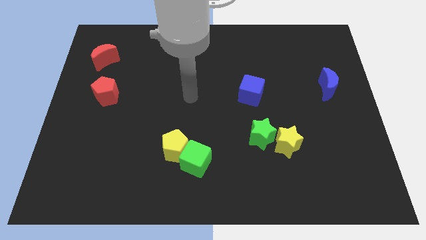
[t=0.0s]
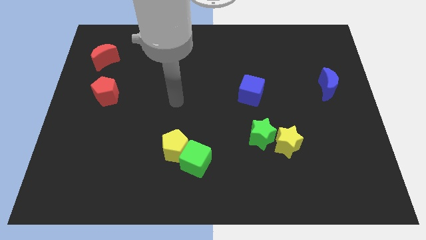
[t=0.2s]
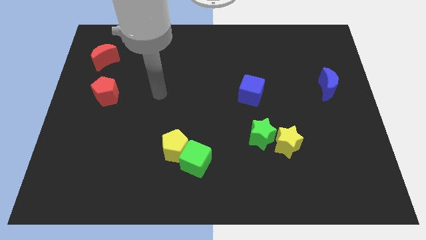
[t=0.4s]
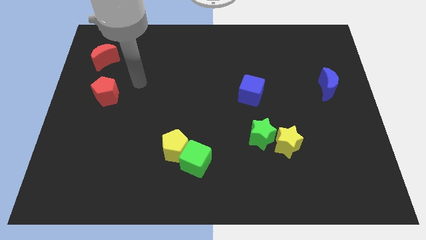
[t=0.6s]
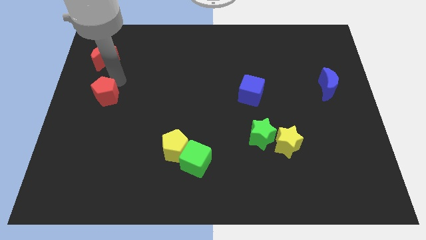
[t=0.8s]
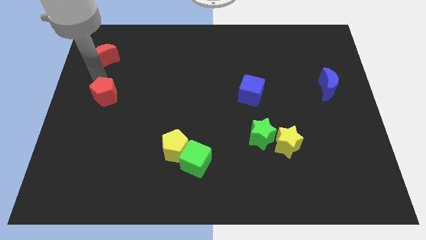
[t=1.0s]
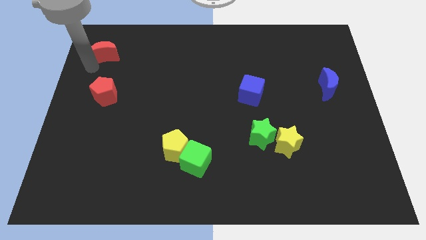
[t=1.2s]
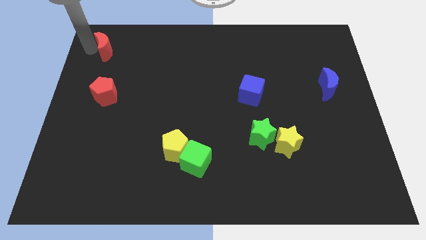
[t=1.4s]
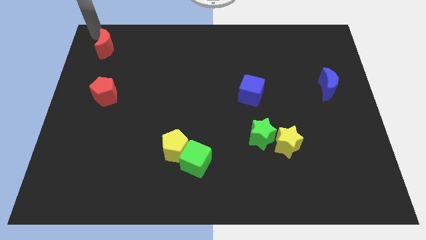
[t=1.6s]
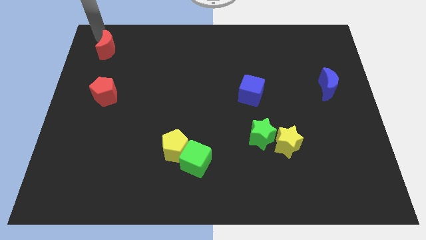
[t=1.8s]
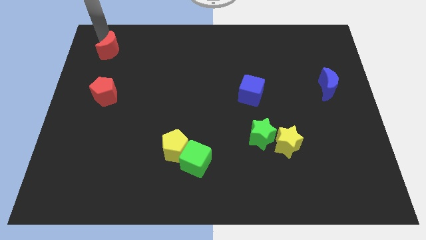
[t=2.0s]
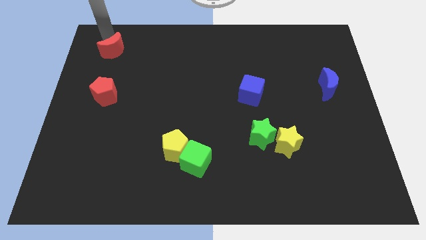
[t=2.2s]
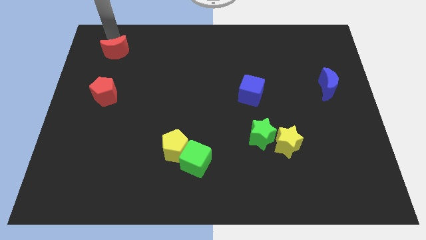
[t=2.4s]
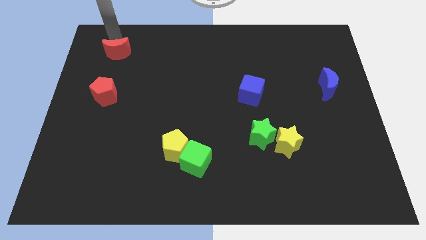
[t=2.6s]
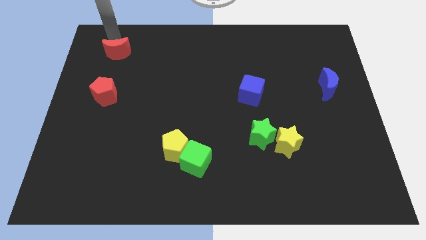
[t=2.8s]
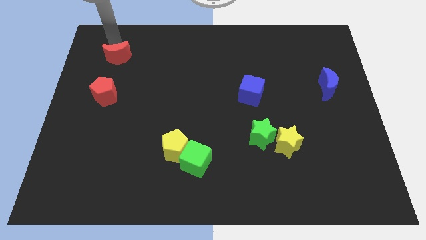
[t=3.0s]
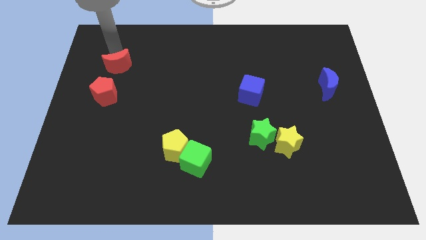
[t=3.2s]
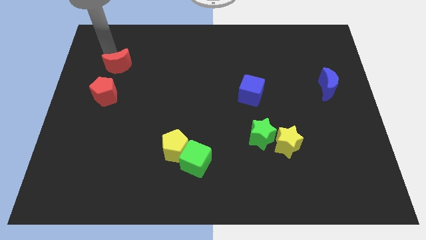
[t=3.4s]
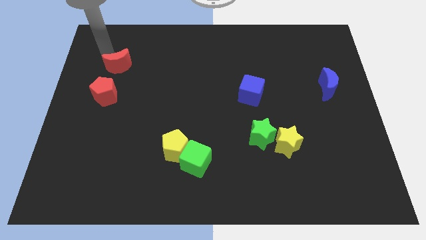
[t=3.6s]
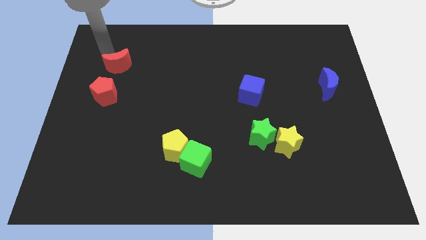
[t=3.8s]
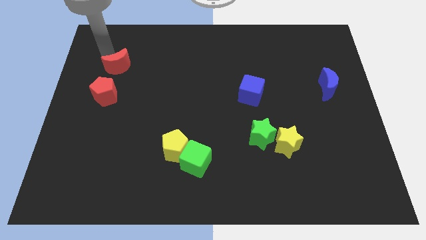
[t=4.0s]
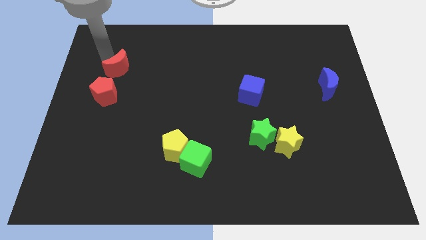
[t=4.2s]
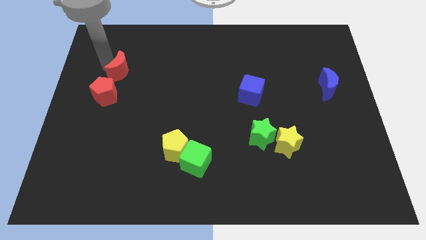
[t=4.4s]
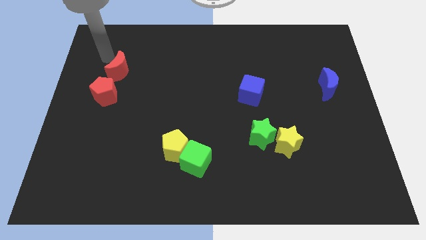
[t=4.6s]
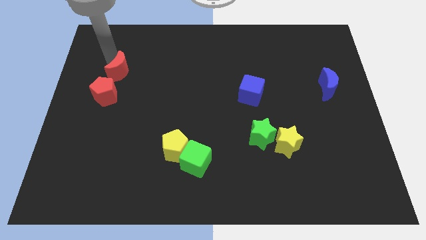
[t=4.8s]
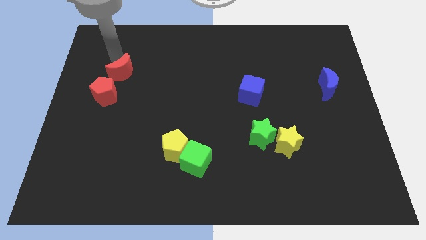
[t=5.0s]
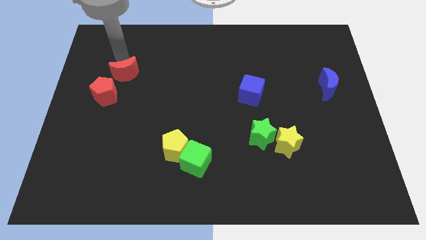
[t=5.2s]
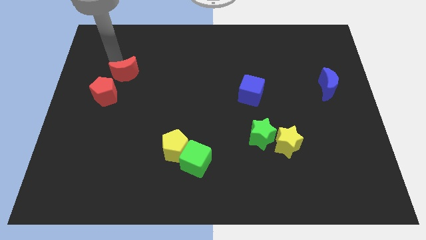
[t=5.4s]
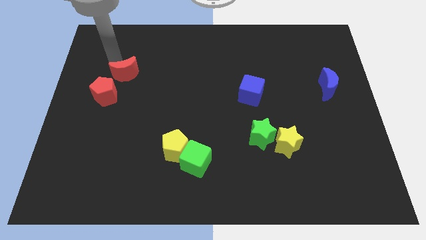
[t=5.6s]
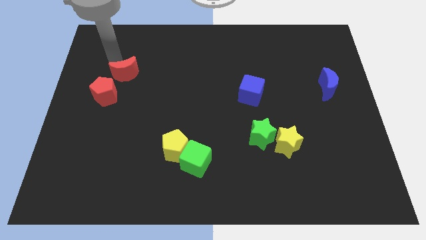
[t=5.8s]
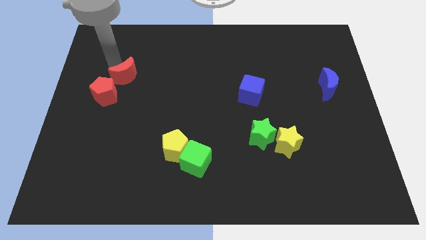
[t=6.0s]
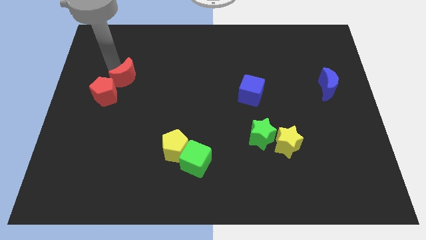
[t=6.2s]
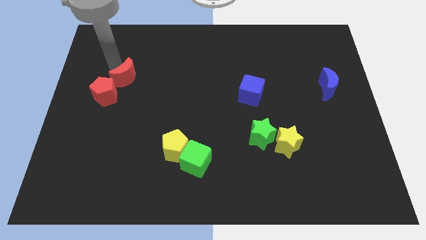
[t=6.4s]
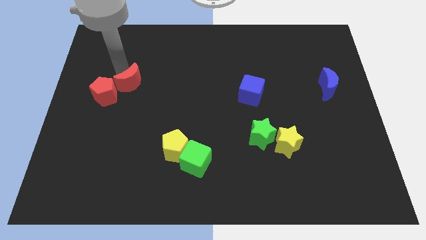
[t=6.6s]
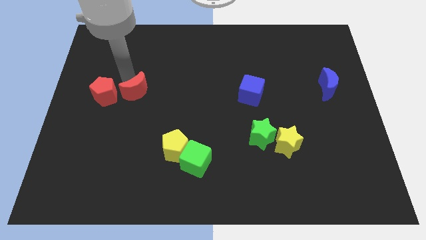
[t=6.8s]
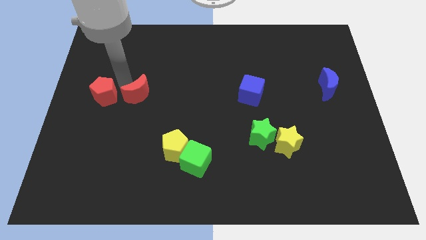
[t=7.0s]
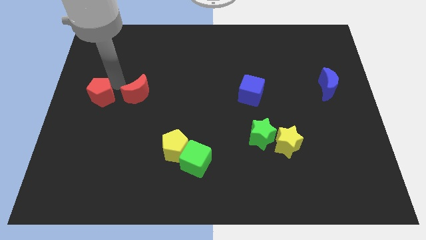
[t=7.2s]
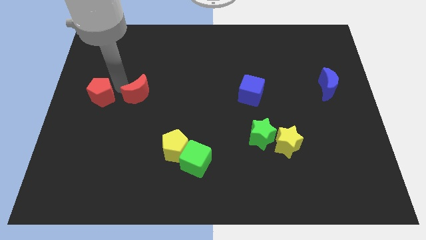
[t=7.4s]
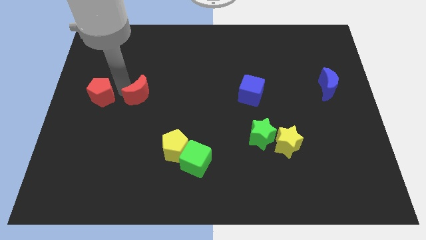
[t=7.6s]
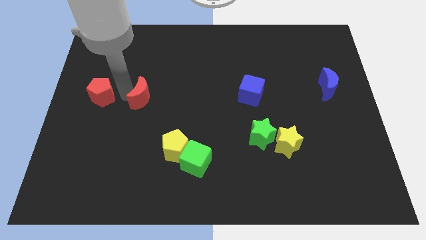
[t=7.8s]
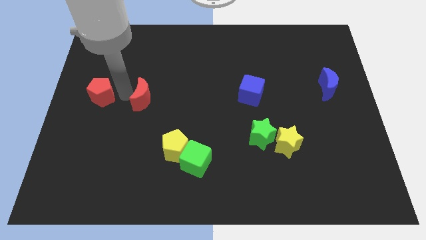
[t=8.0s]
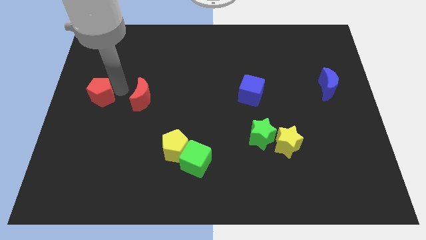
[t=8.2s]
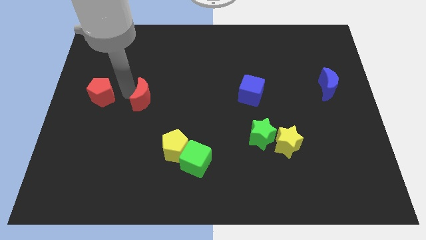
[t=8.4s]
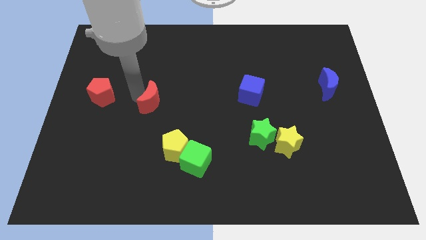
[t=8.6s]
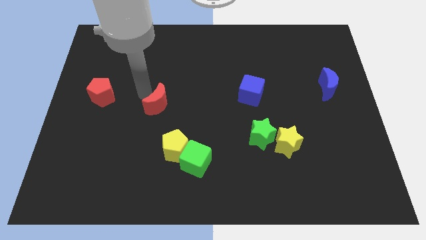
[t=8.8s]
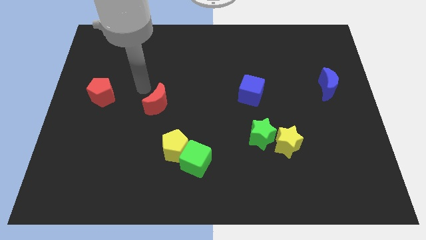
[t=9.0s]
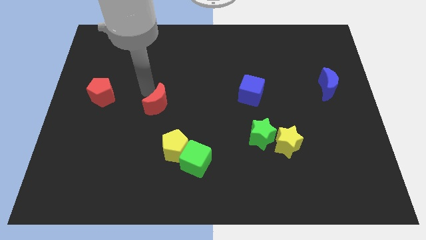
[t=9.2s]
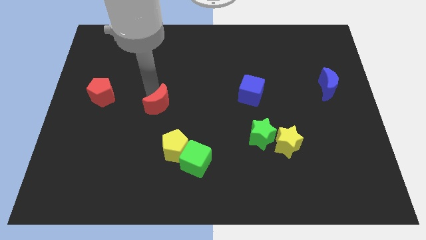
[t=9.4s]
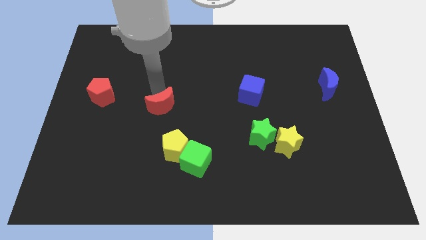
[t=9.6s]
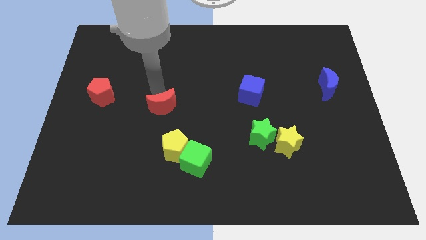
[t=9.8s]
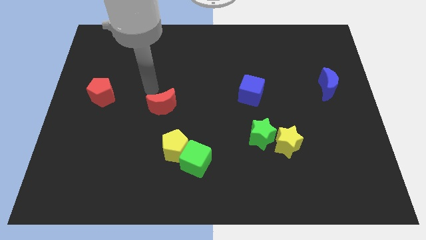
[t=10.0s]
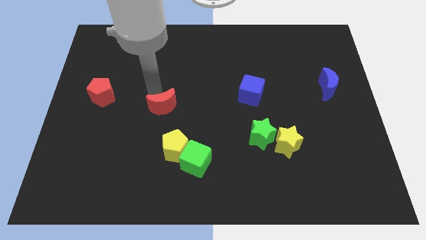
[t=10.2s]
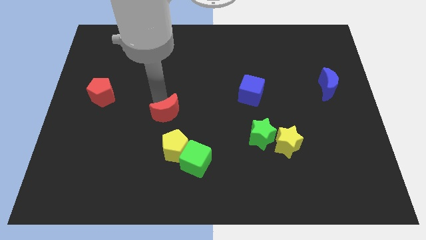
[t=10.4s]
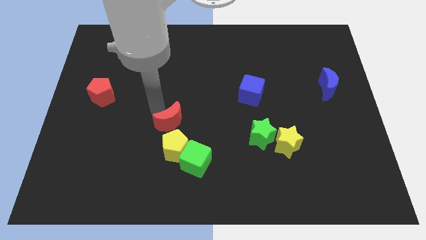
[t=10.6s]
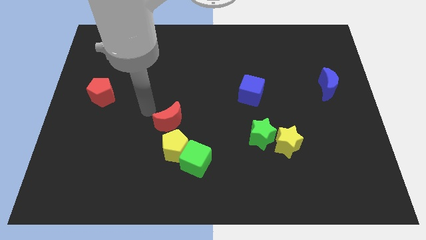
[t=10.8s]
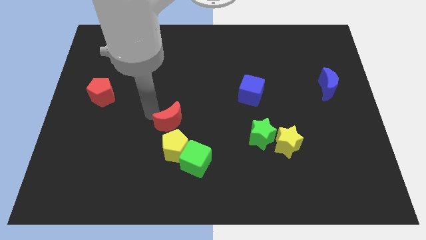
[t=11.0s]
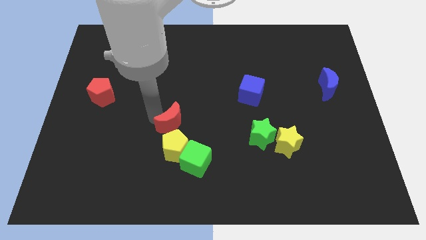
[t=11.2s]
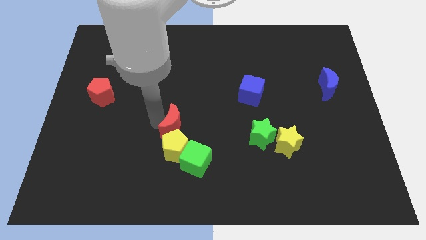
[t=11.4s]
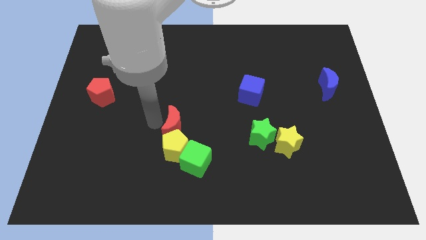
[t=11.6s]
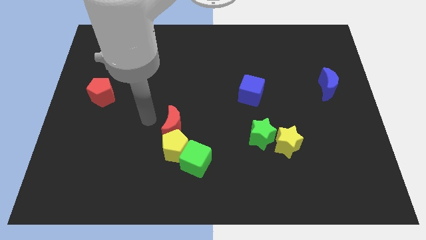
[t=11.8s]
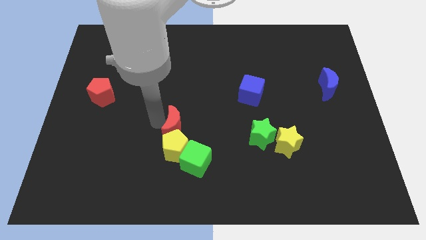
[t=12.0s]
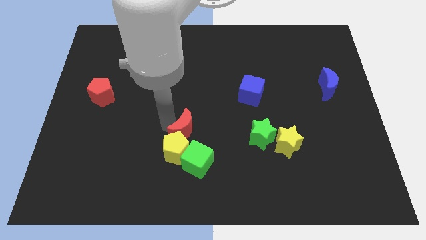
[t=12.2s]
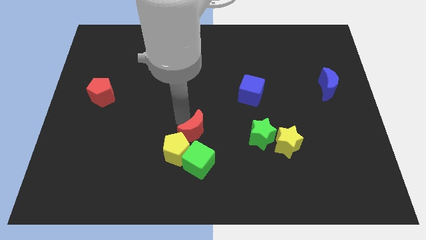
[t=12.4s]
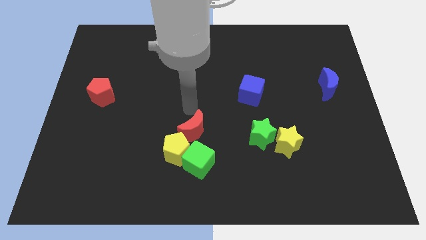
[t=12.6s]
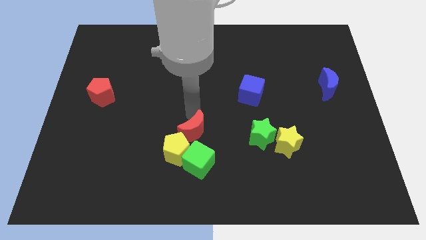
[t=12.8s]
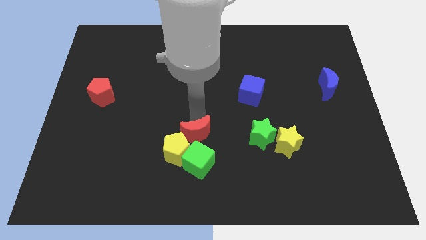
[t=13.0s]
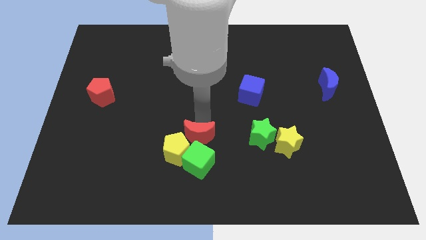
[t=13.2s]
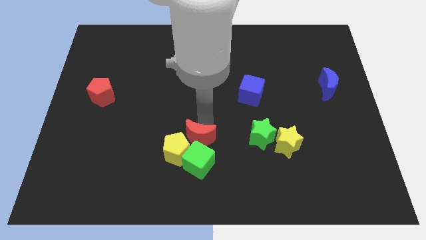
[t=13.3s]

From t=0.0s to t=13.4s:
move the red moon towards the green cube

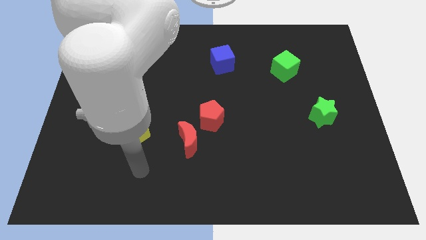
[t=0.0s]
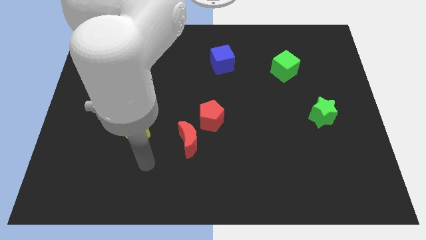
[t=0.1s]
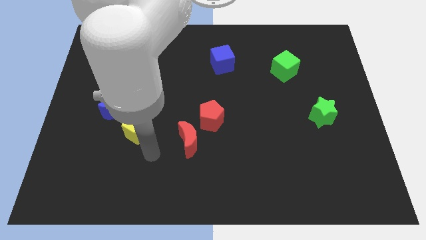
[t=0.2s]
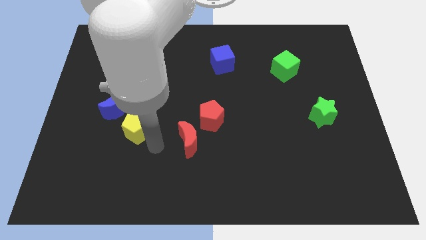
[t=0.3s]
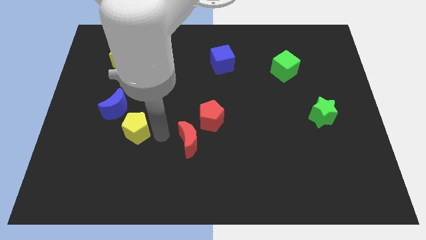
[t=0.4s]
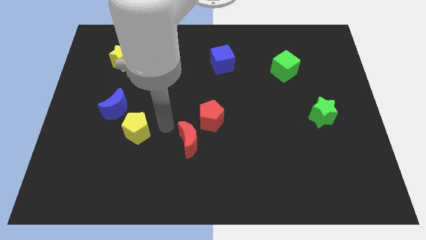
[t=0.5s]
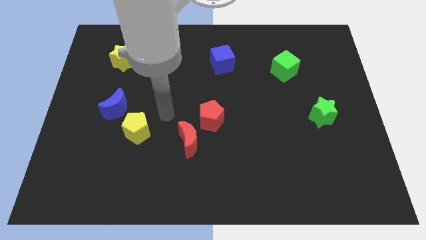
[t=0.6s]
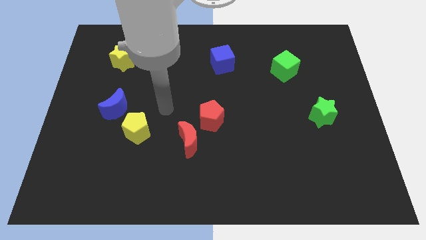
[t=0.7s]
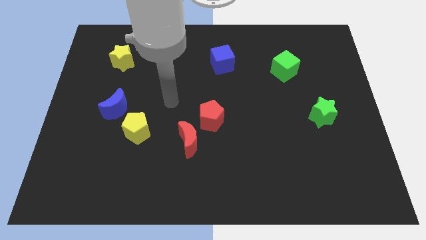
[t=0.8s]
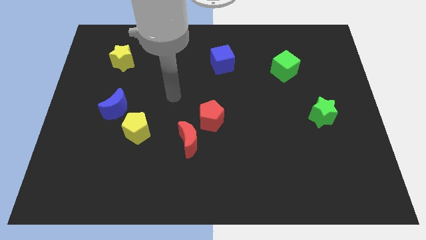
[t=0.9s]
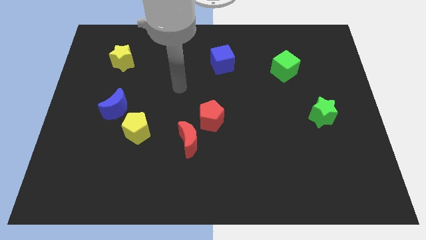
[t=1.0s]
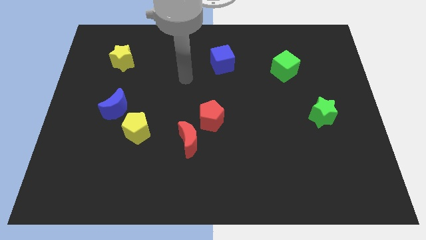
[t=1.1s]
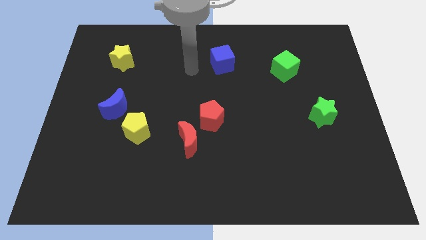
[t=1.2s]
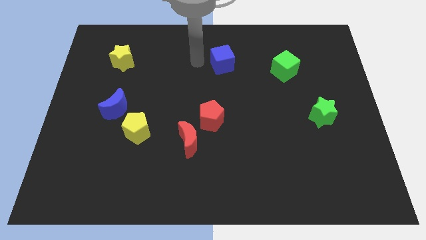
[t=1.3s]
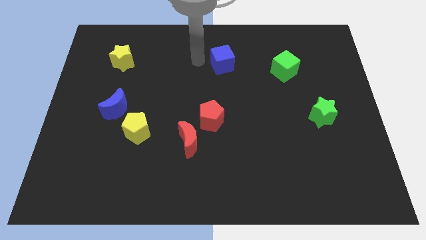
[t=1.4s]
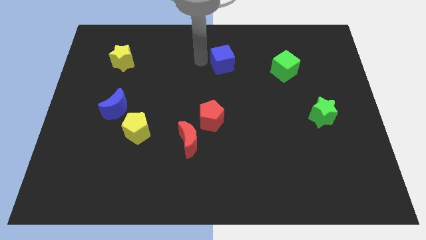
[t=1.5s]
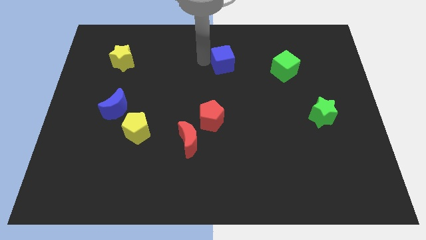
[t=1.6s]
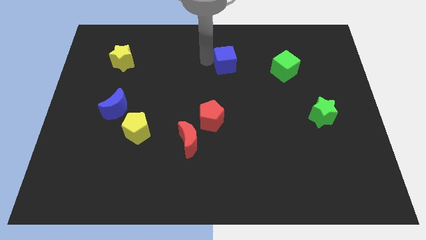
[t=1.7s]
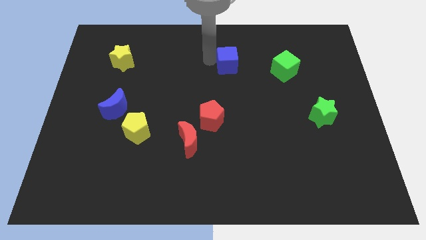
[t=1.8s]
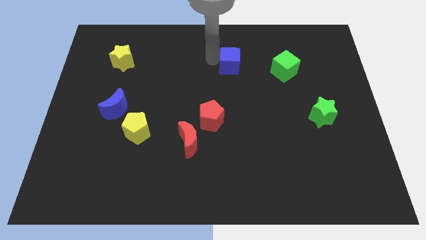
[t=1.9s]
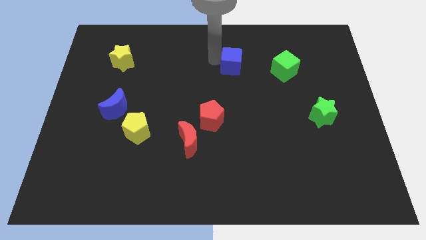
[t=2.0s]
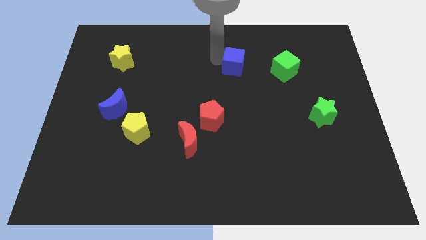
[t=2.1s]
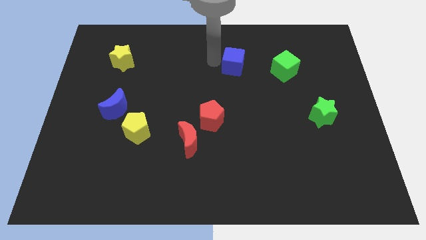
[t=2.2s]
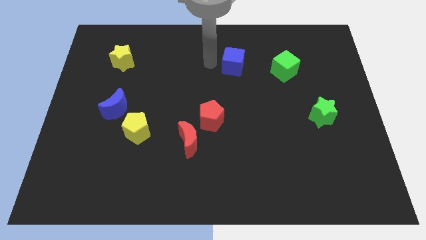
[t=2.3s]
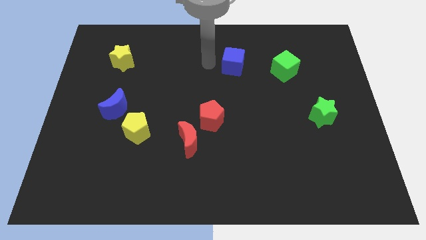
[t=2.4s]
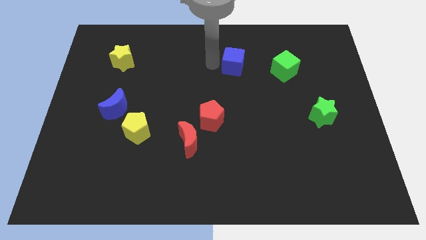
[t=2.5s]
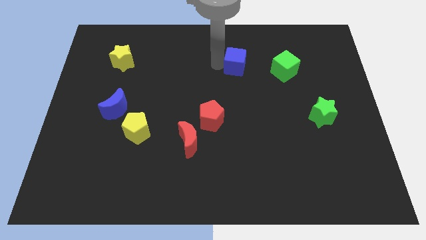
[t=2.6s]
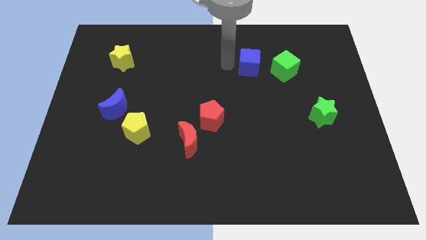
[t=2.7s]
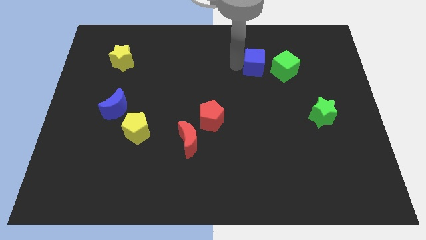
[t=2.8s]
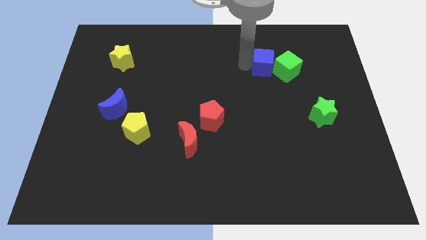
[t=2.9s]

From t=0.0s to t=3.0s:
put the blue cube close to the green cube
